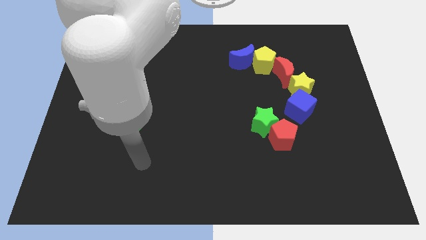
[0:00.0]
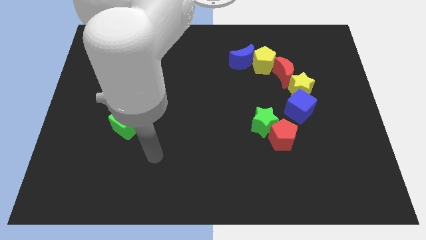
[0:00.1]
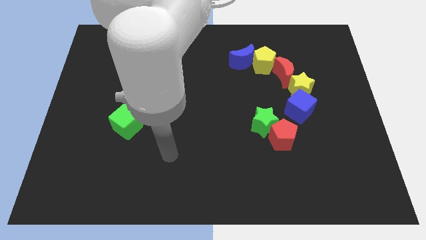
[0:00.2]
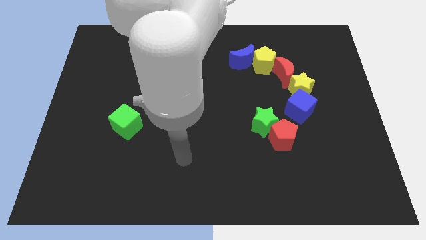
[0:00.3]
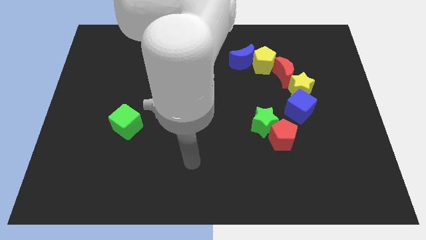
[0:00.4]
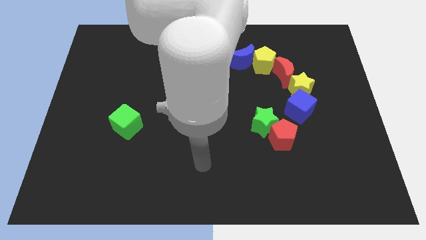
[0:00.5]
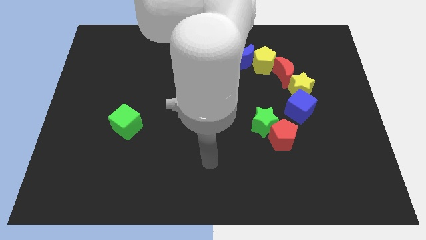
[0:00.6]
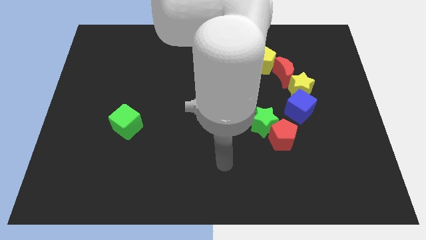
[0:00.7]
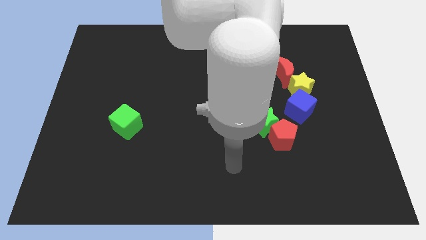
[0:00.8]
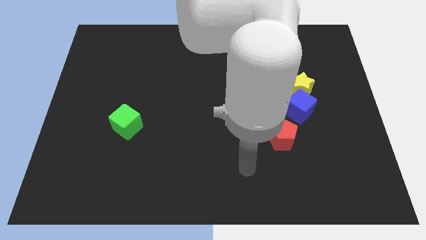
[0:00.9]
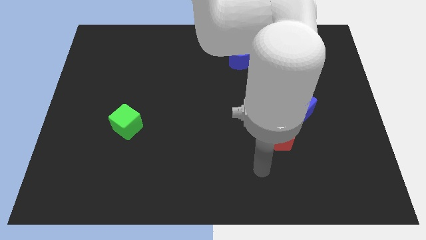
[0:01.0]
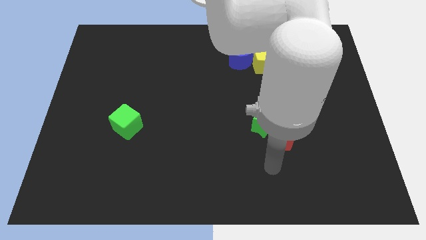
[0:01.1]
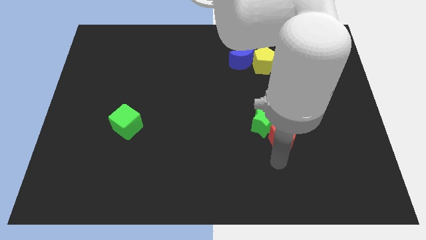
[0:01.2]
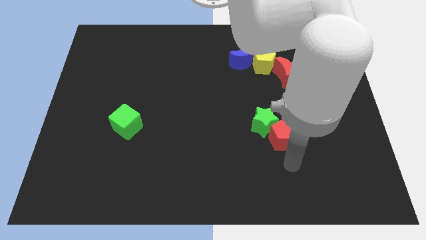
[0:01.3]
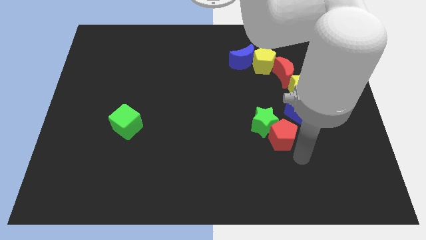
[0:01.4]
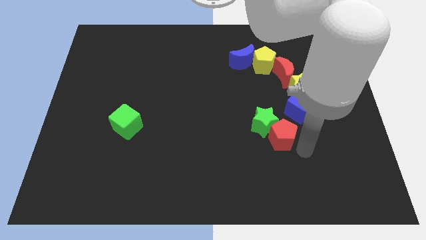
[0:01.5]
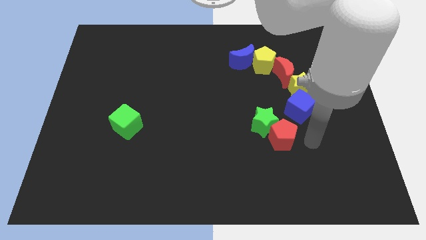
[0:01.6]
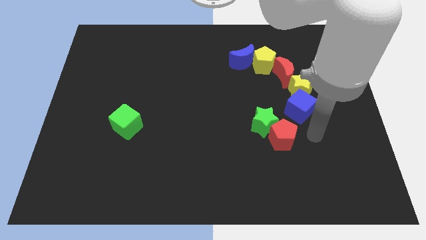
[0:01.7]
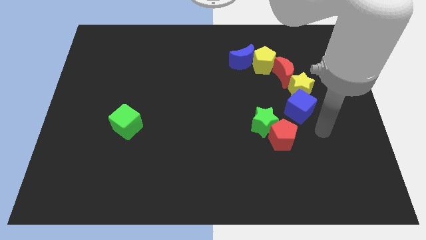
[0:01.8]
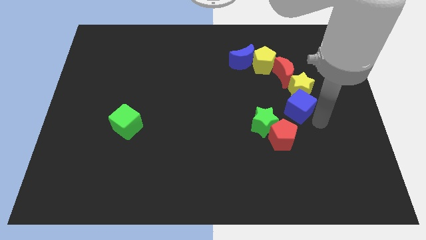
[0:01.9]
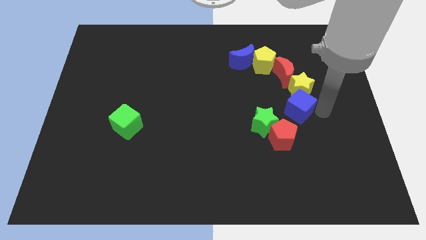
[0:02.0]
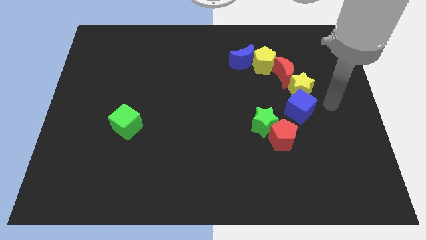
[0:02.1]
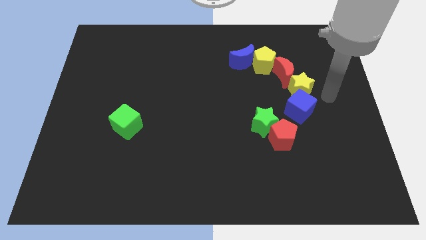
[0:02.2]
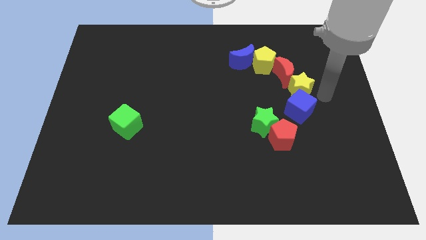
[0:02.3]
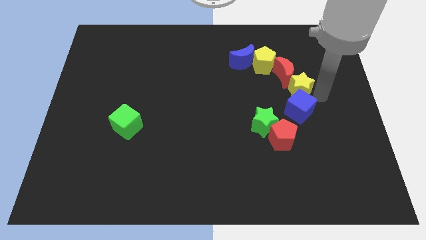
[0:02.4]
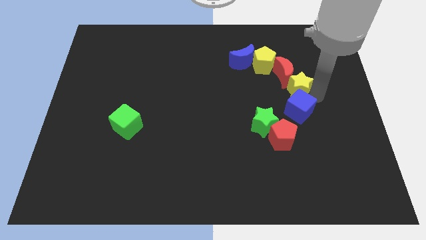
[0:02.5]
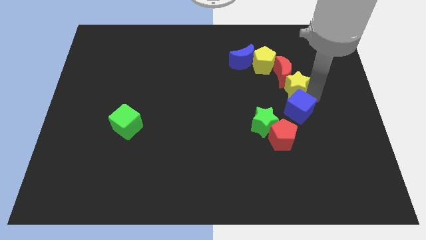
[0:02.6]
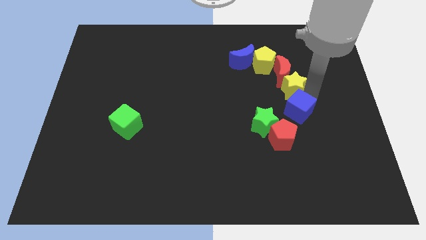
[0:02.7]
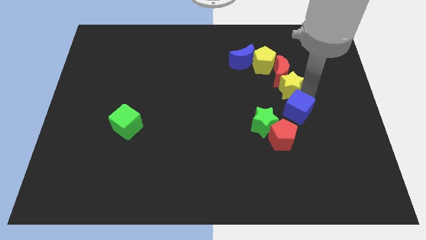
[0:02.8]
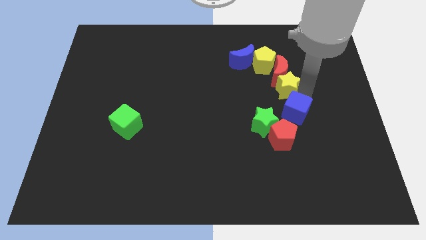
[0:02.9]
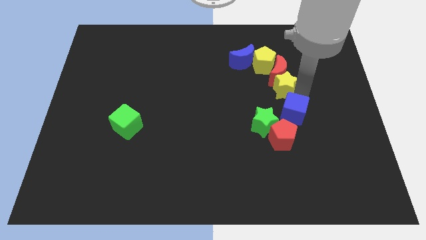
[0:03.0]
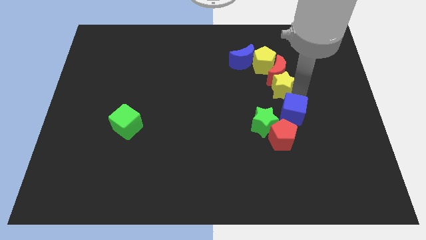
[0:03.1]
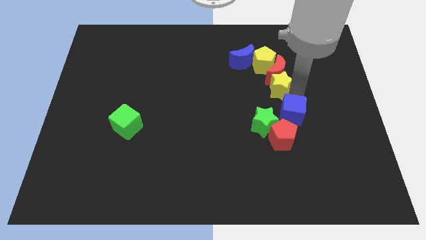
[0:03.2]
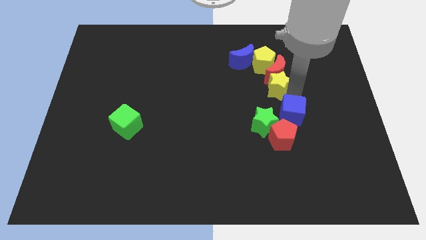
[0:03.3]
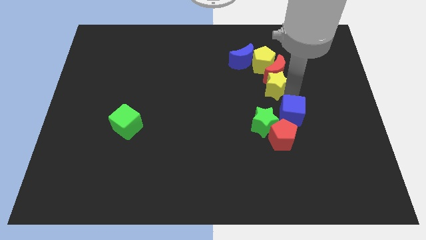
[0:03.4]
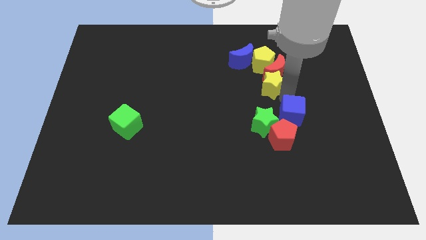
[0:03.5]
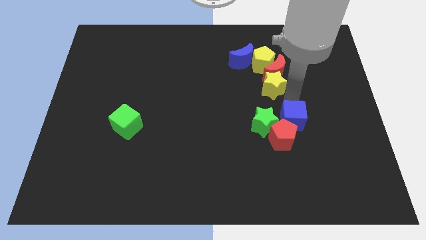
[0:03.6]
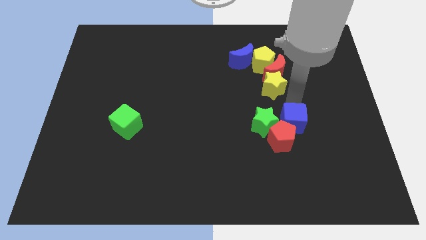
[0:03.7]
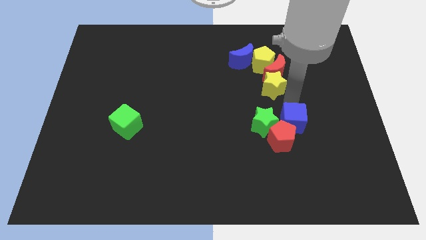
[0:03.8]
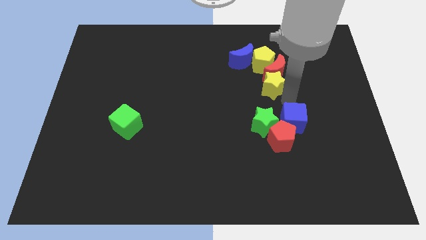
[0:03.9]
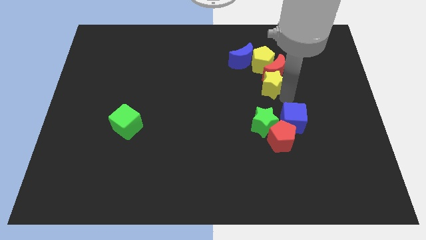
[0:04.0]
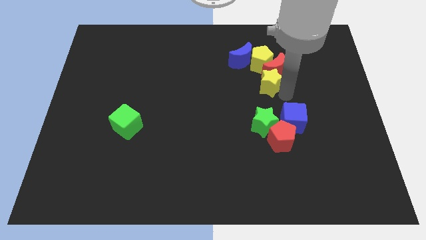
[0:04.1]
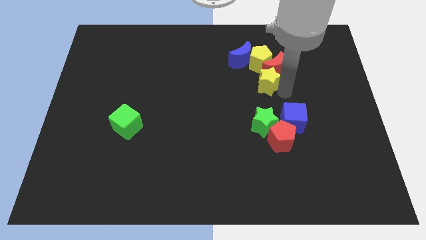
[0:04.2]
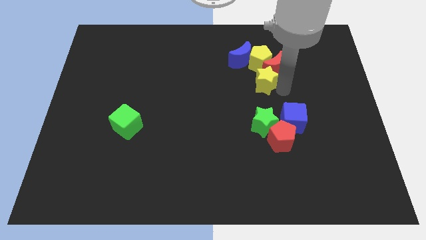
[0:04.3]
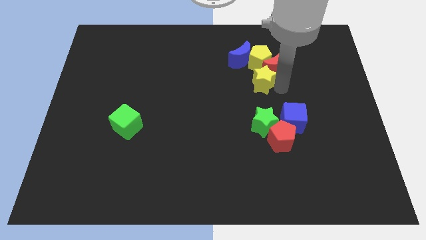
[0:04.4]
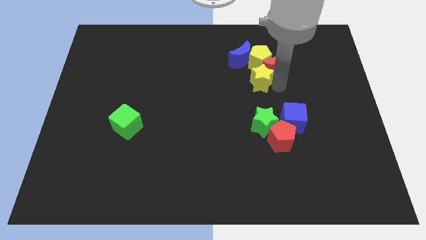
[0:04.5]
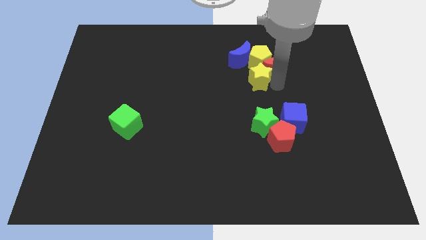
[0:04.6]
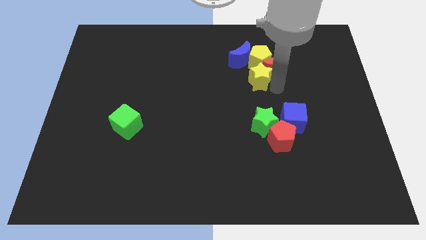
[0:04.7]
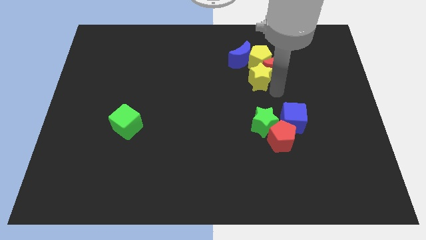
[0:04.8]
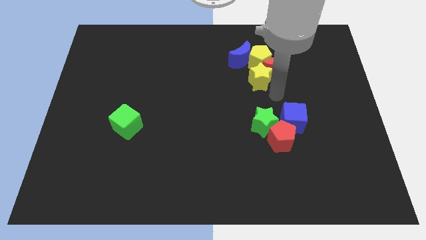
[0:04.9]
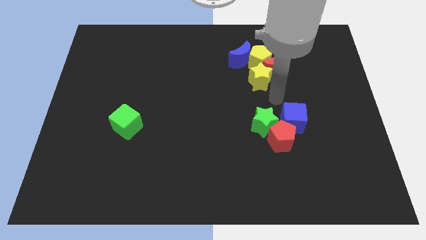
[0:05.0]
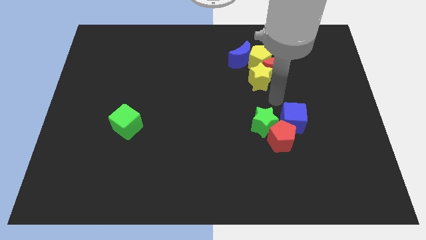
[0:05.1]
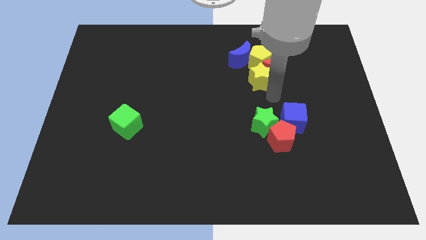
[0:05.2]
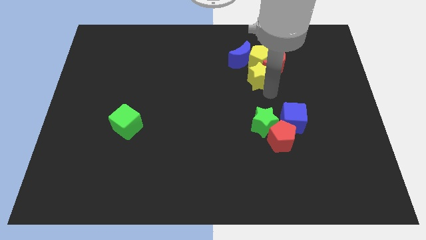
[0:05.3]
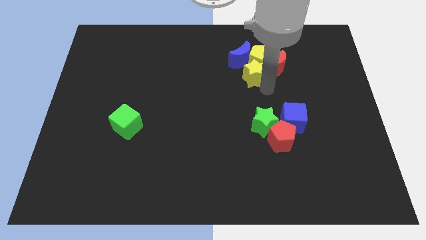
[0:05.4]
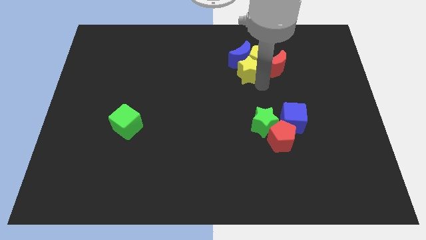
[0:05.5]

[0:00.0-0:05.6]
move the yellow star to the blue moon

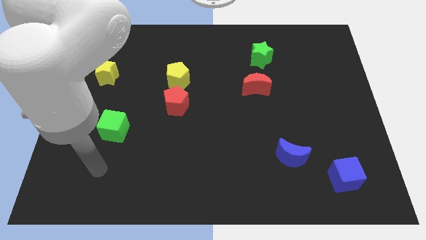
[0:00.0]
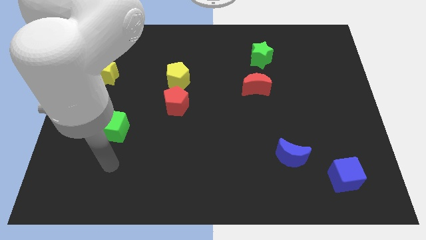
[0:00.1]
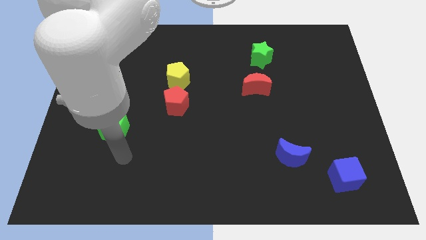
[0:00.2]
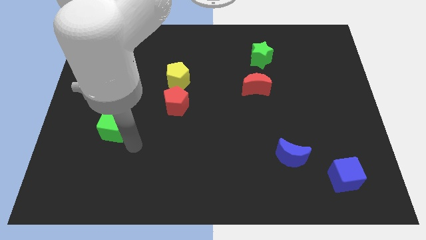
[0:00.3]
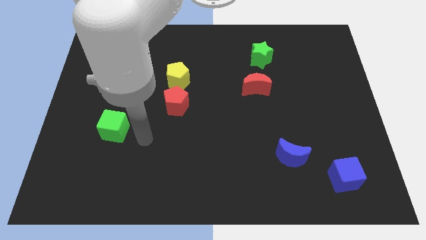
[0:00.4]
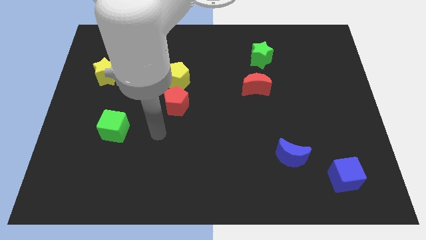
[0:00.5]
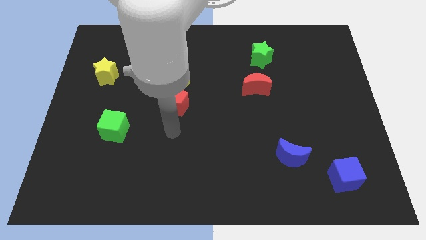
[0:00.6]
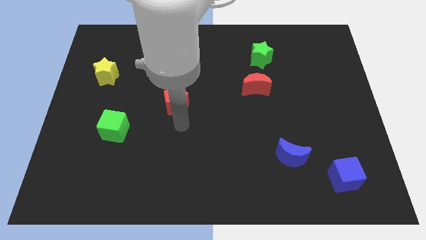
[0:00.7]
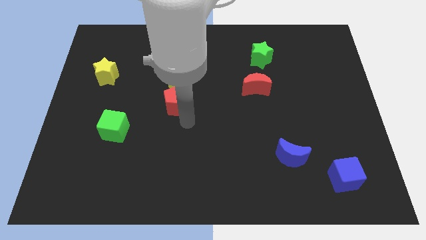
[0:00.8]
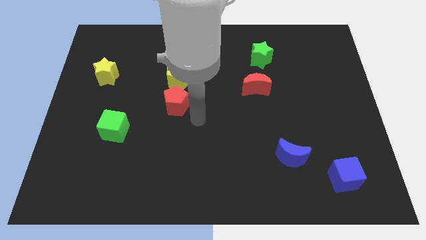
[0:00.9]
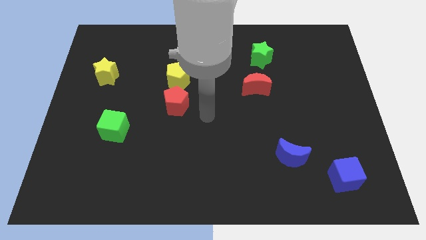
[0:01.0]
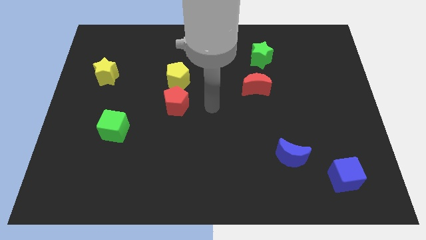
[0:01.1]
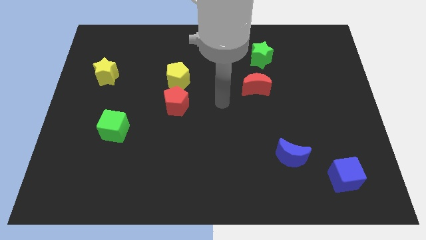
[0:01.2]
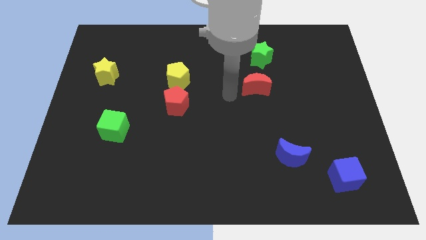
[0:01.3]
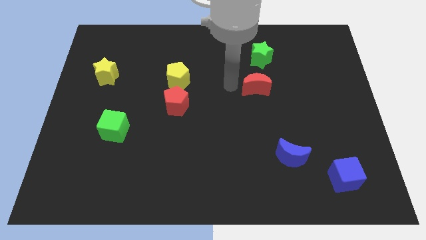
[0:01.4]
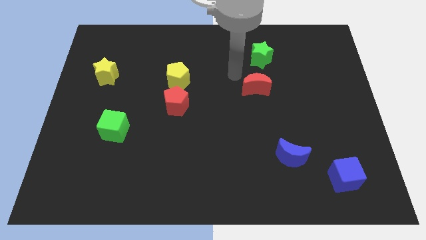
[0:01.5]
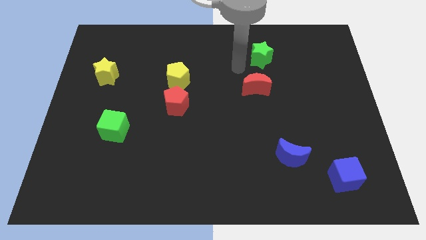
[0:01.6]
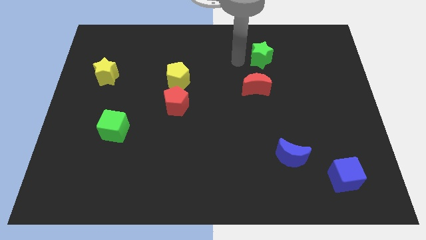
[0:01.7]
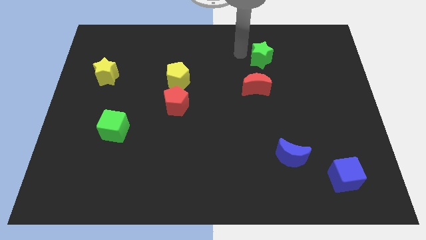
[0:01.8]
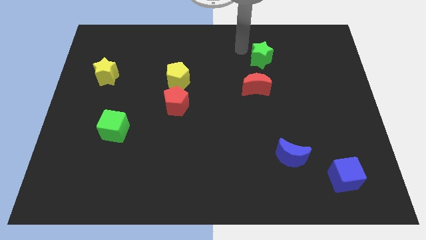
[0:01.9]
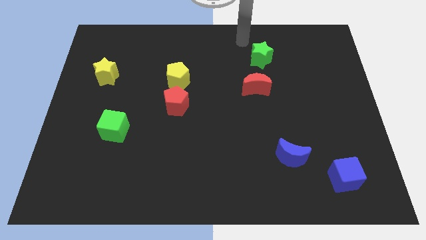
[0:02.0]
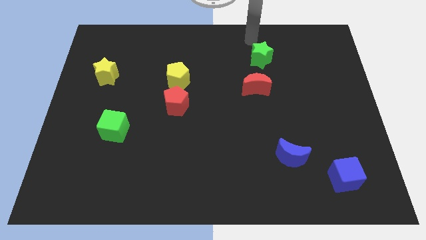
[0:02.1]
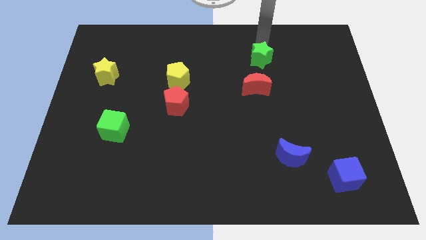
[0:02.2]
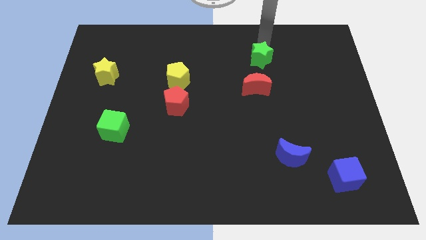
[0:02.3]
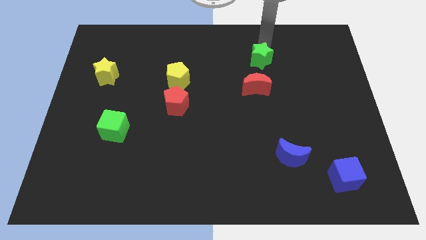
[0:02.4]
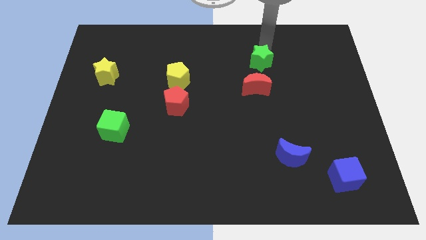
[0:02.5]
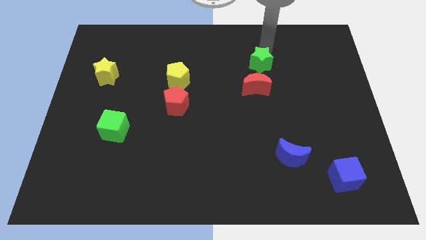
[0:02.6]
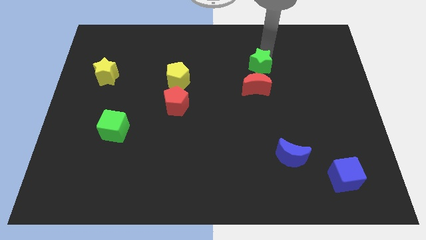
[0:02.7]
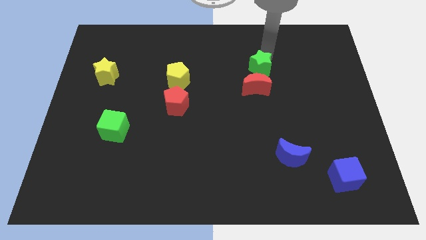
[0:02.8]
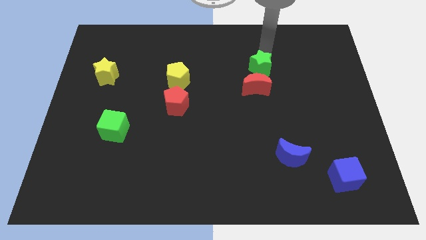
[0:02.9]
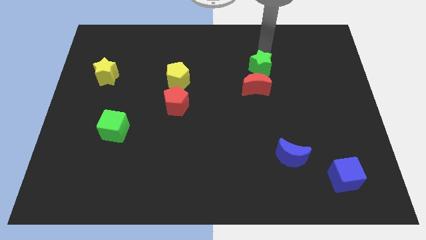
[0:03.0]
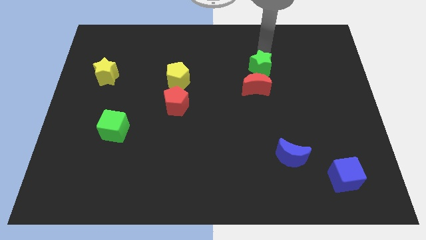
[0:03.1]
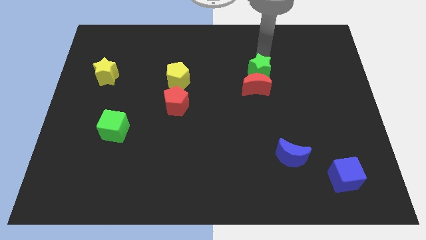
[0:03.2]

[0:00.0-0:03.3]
put the green star towards the red moon
